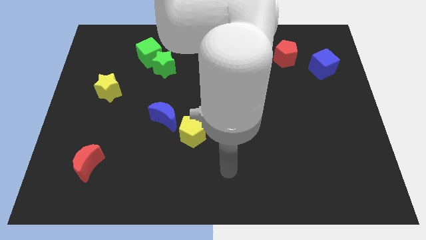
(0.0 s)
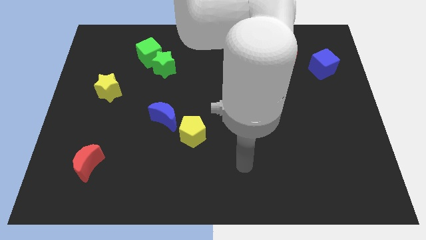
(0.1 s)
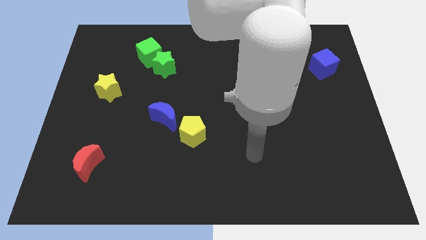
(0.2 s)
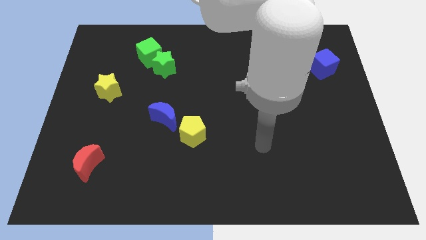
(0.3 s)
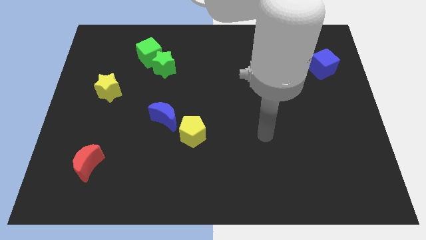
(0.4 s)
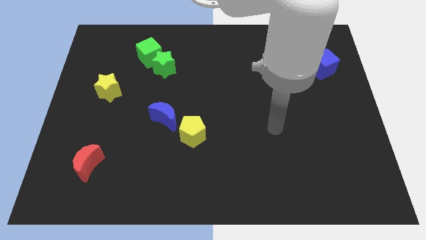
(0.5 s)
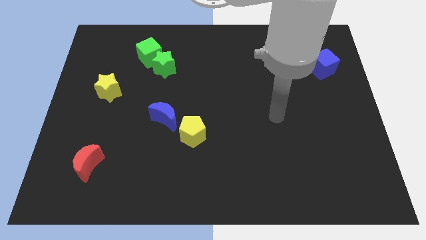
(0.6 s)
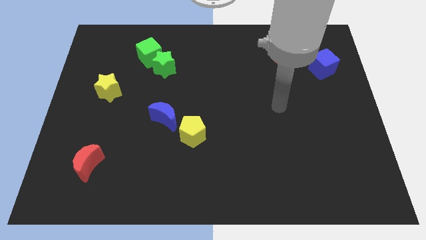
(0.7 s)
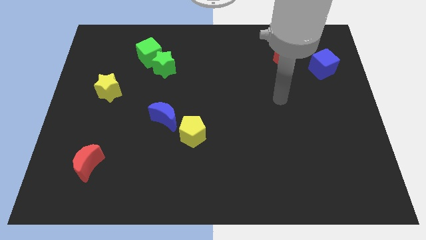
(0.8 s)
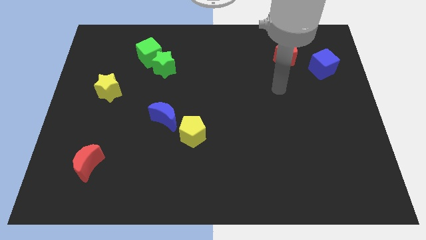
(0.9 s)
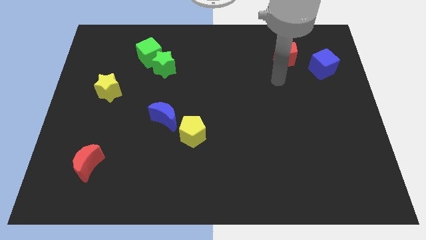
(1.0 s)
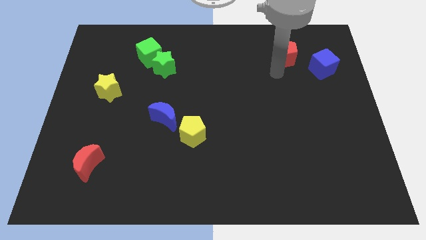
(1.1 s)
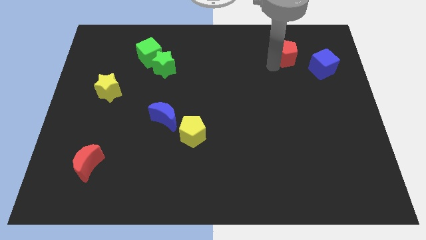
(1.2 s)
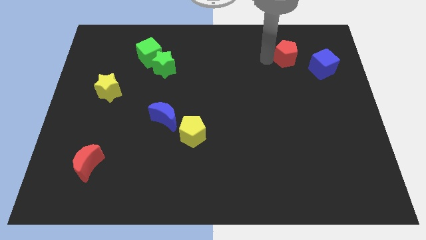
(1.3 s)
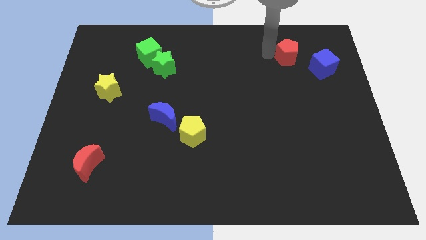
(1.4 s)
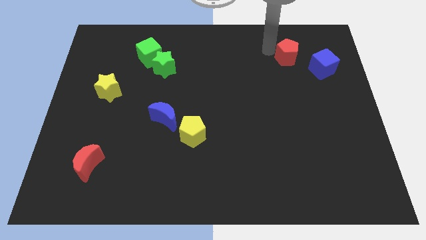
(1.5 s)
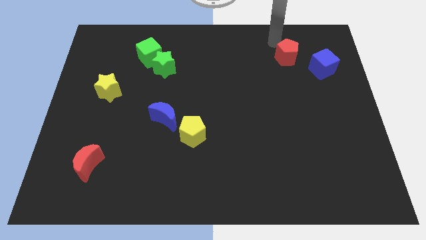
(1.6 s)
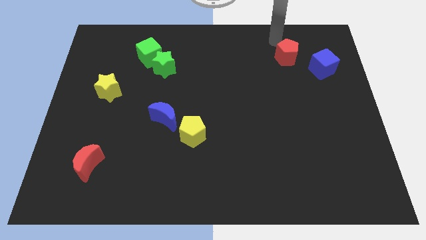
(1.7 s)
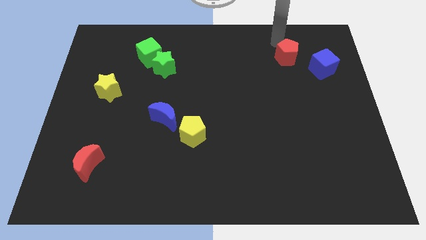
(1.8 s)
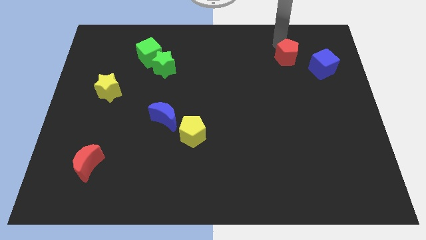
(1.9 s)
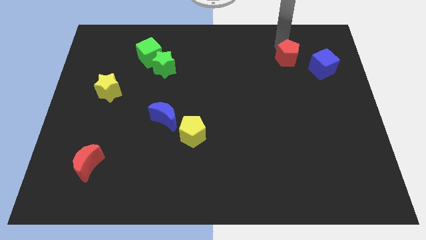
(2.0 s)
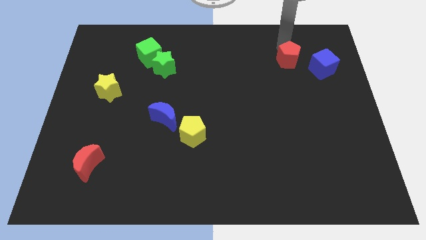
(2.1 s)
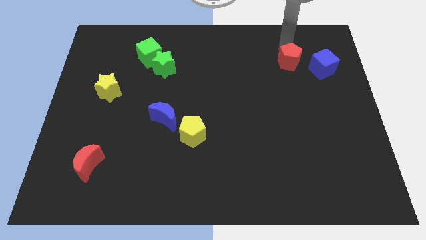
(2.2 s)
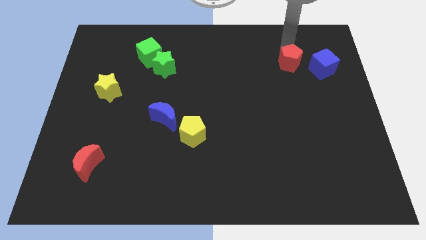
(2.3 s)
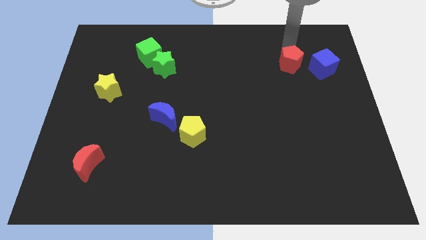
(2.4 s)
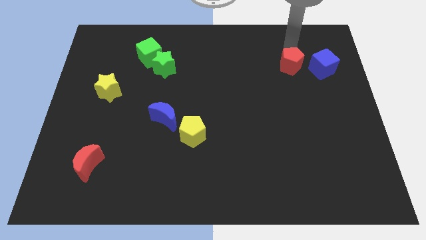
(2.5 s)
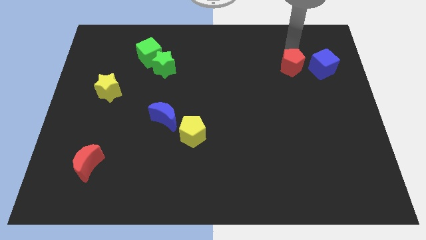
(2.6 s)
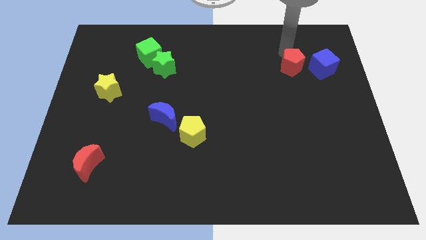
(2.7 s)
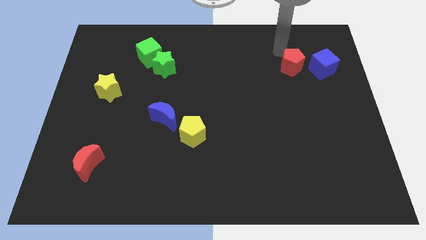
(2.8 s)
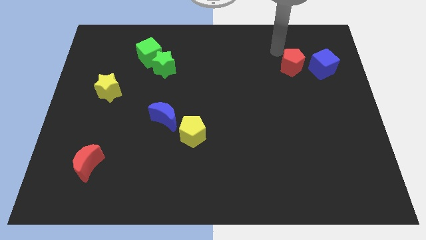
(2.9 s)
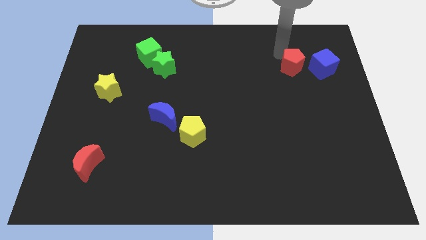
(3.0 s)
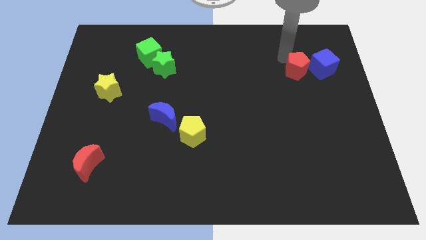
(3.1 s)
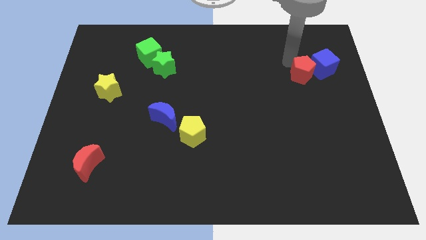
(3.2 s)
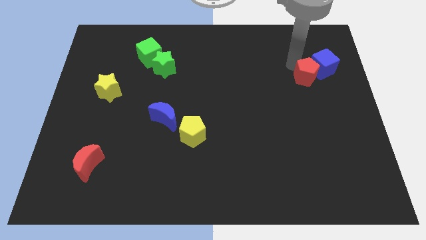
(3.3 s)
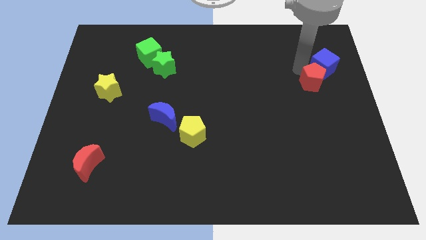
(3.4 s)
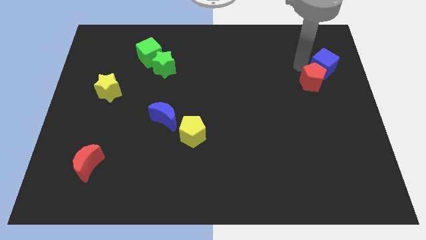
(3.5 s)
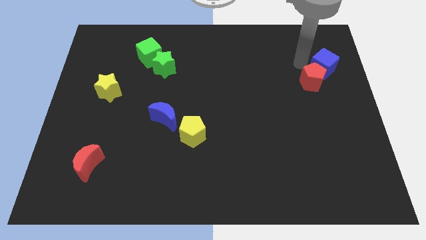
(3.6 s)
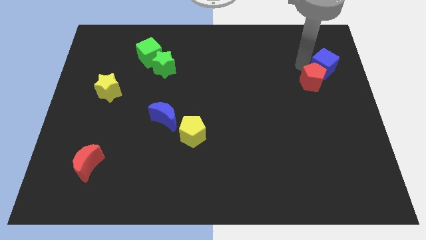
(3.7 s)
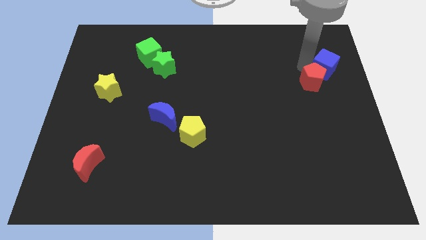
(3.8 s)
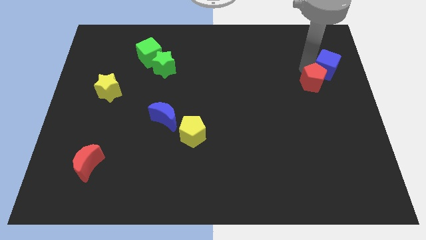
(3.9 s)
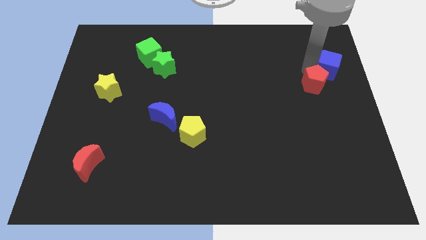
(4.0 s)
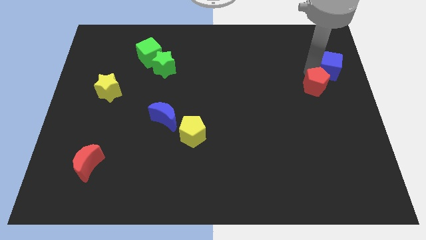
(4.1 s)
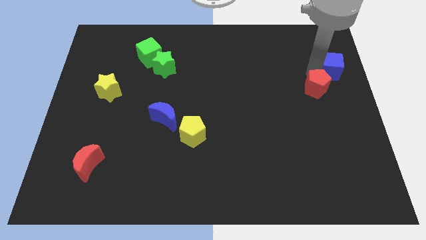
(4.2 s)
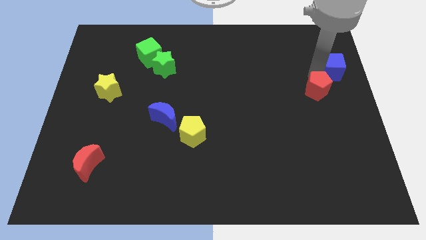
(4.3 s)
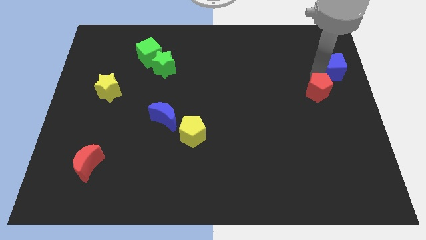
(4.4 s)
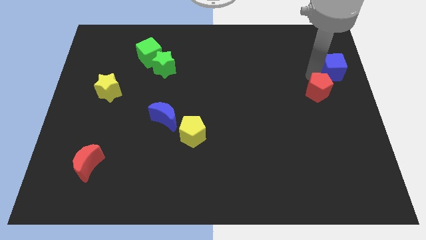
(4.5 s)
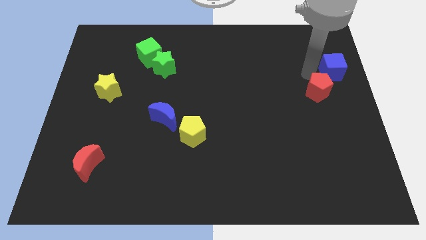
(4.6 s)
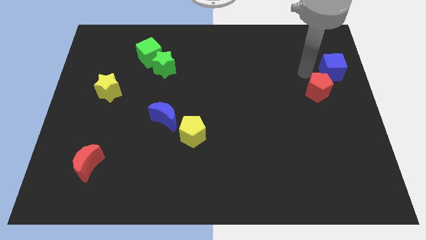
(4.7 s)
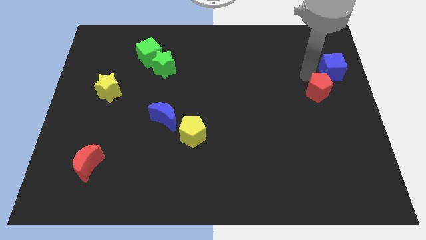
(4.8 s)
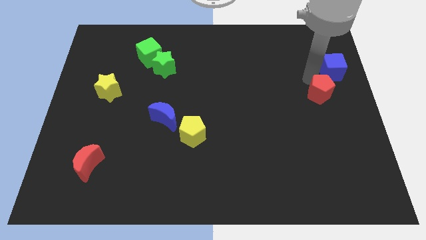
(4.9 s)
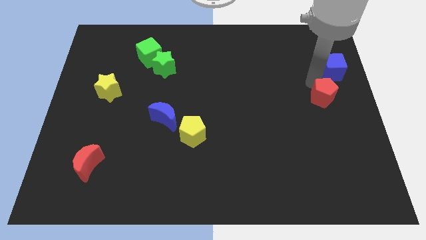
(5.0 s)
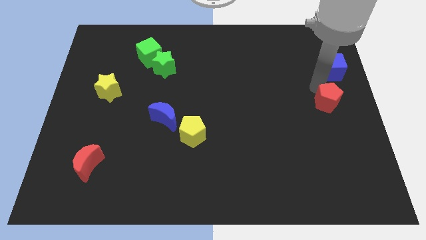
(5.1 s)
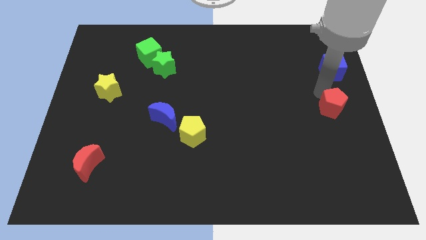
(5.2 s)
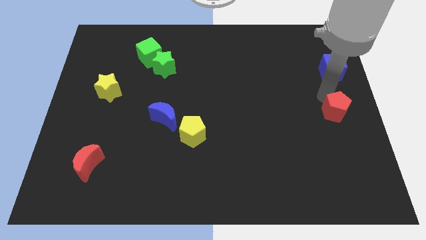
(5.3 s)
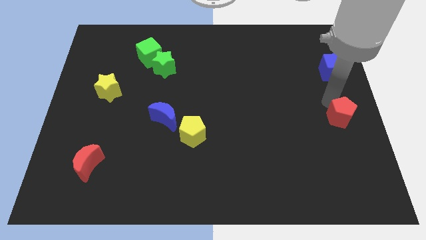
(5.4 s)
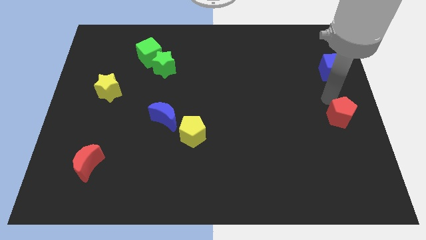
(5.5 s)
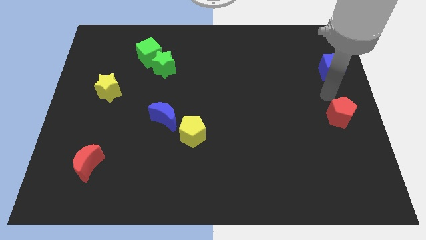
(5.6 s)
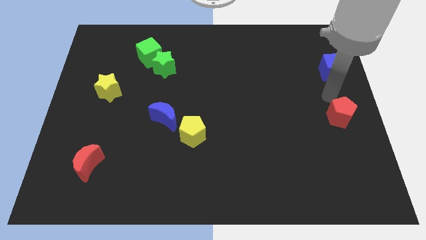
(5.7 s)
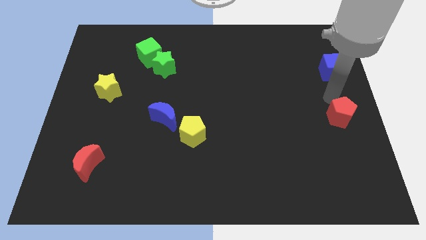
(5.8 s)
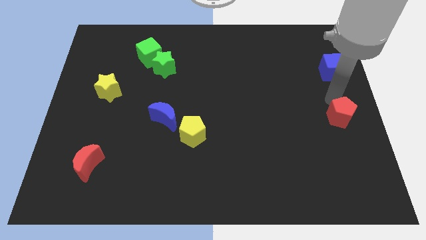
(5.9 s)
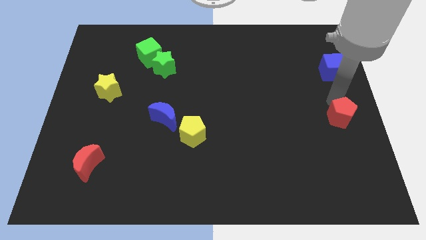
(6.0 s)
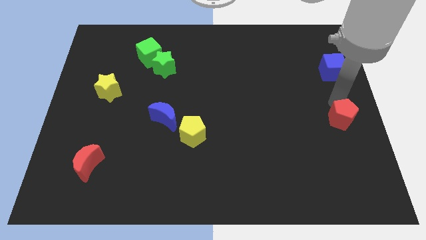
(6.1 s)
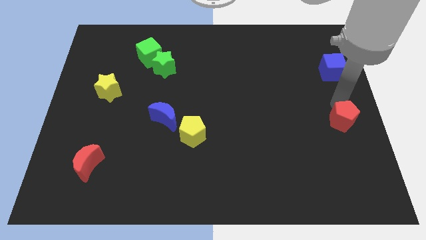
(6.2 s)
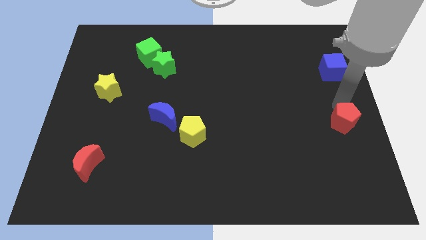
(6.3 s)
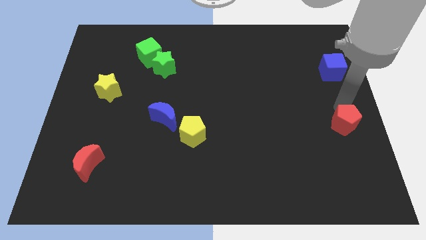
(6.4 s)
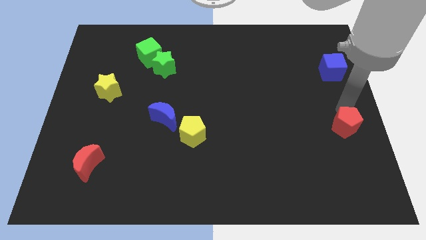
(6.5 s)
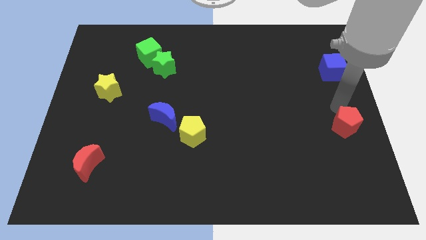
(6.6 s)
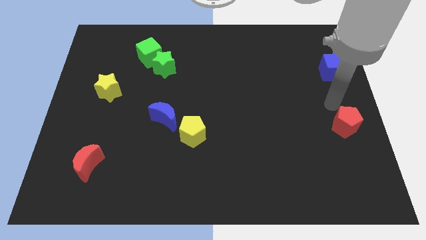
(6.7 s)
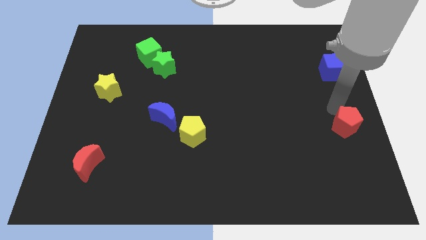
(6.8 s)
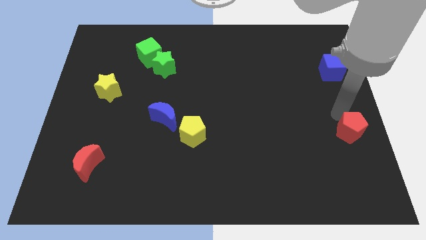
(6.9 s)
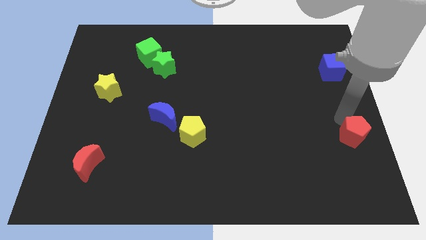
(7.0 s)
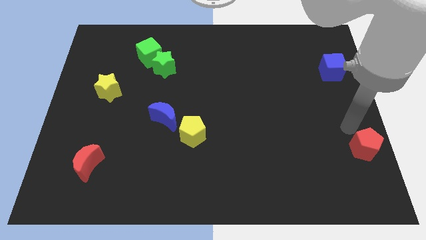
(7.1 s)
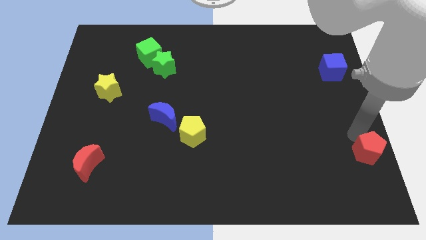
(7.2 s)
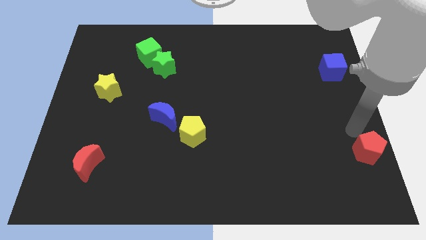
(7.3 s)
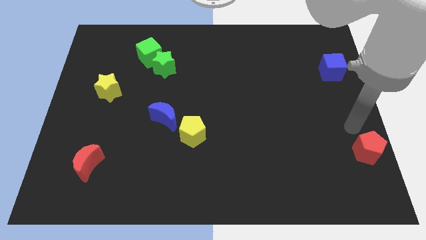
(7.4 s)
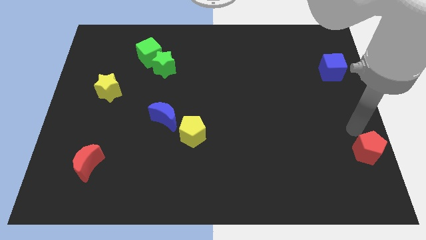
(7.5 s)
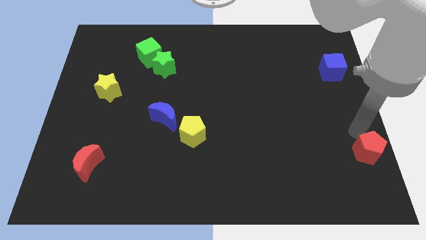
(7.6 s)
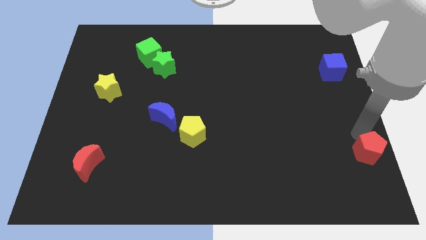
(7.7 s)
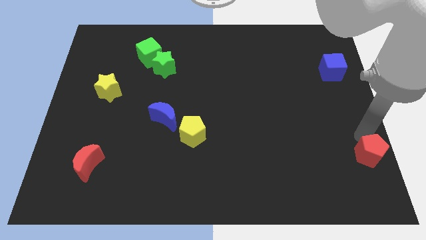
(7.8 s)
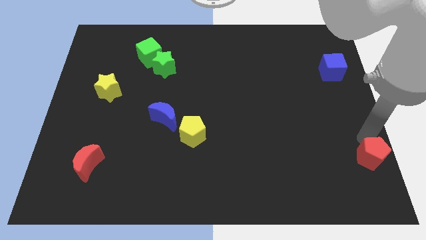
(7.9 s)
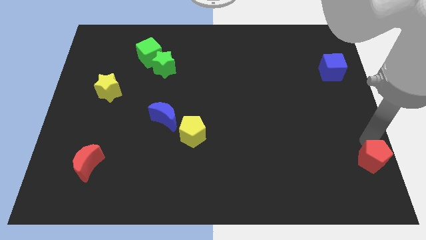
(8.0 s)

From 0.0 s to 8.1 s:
move the red pentagon to the bottom right of the board
